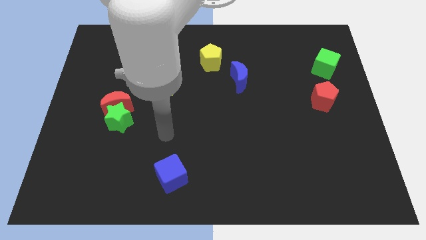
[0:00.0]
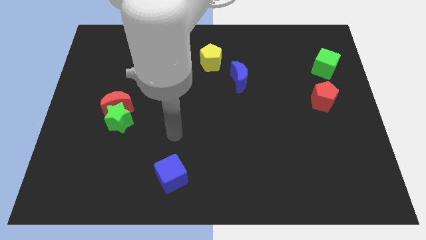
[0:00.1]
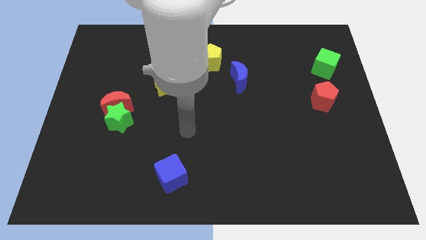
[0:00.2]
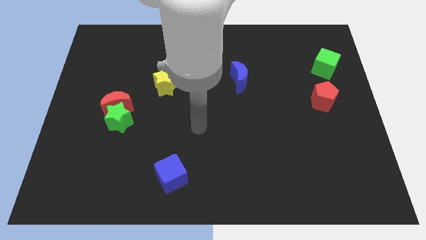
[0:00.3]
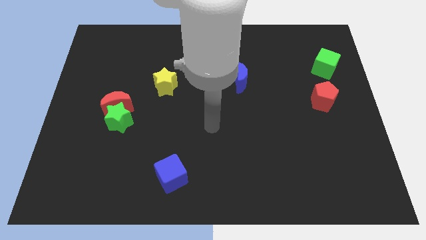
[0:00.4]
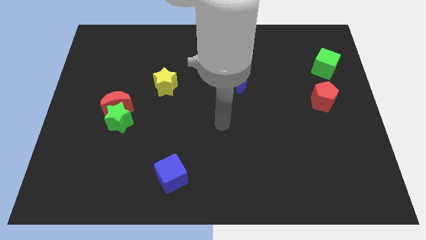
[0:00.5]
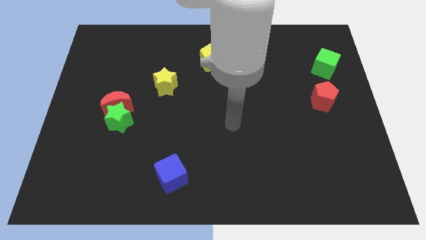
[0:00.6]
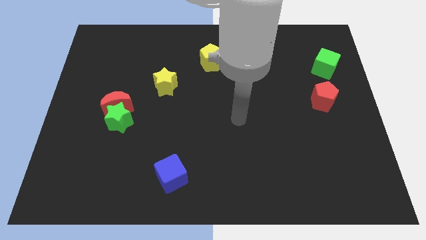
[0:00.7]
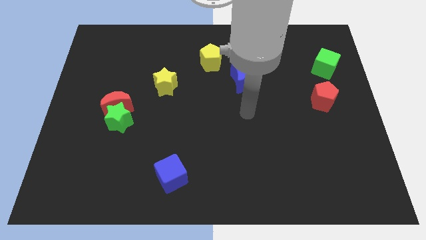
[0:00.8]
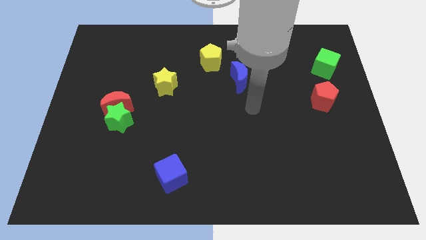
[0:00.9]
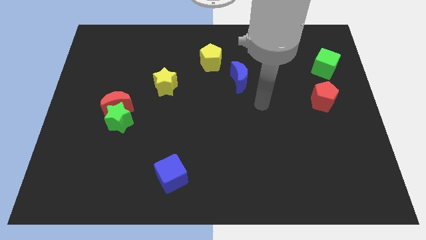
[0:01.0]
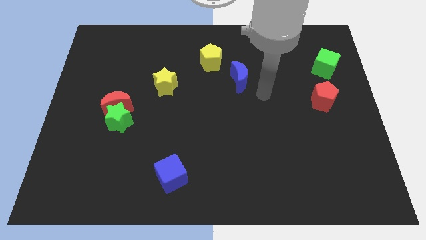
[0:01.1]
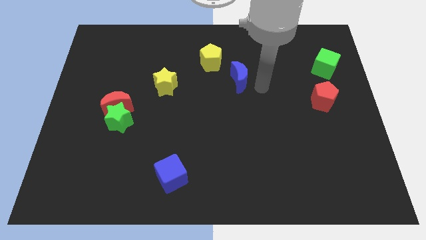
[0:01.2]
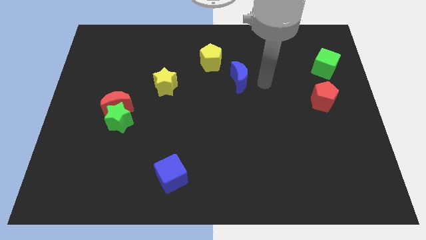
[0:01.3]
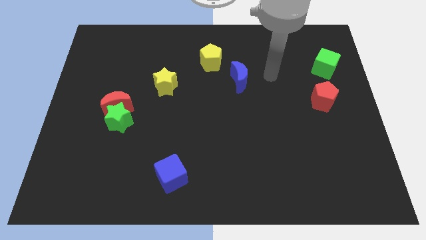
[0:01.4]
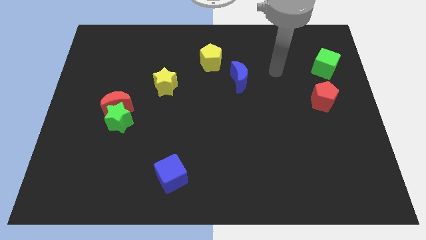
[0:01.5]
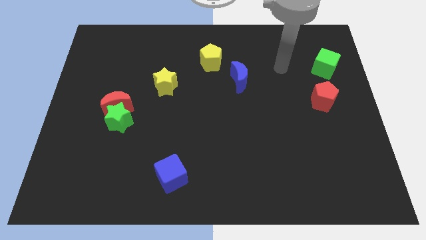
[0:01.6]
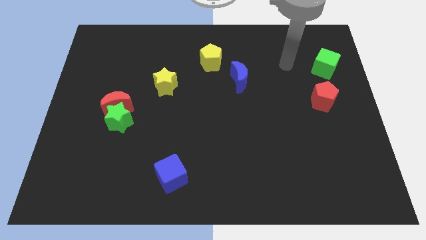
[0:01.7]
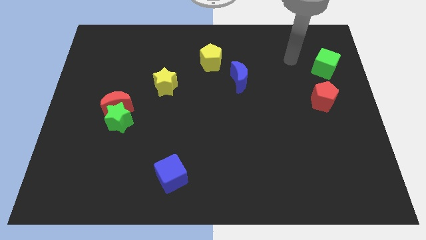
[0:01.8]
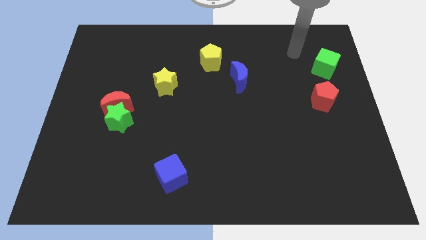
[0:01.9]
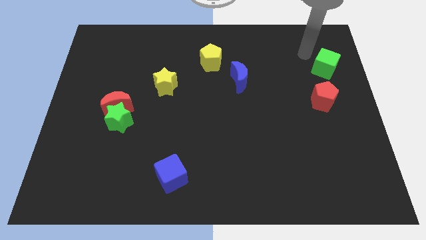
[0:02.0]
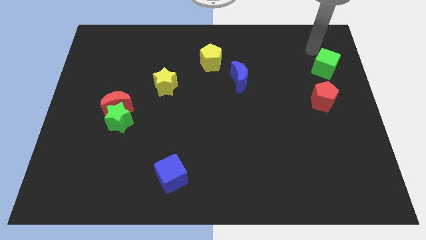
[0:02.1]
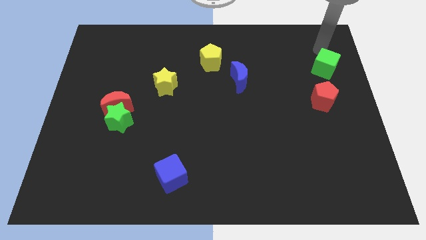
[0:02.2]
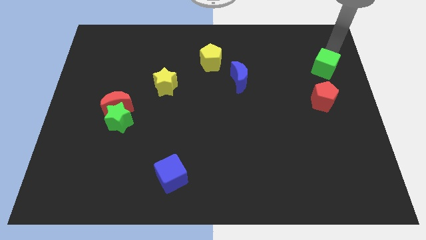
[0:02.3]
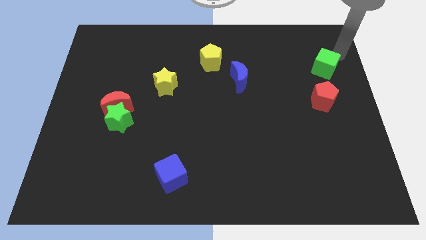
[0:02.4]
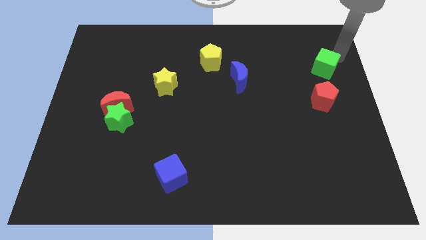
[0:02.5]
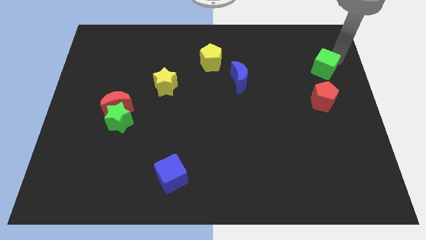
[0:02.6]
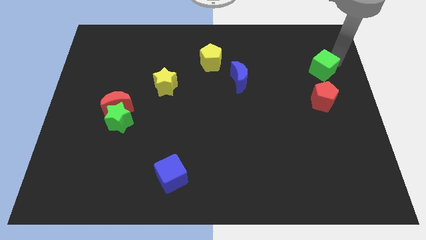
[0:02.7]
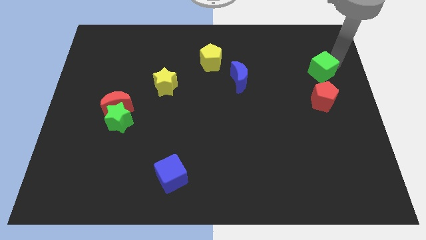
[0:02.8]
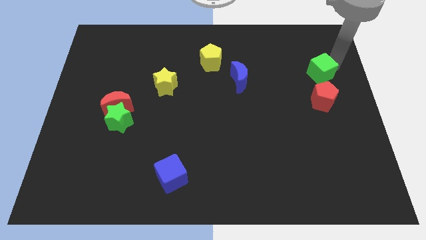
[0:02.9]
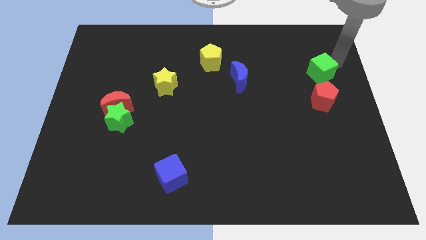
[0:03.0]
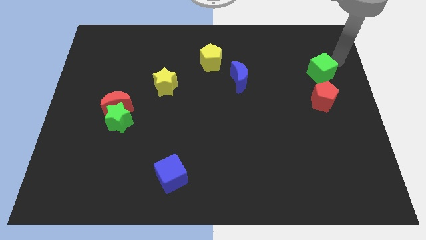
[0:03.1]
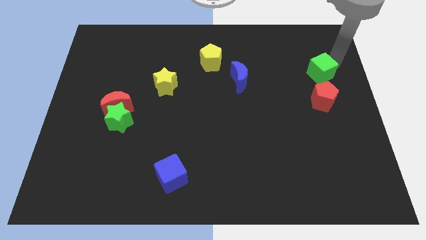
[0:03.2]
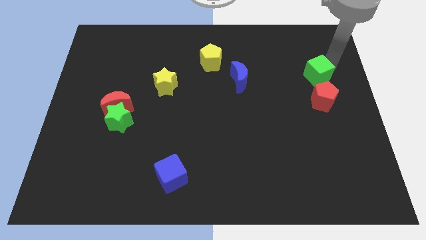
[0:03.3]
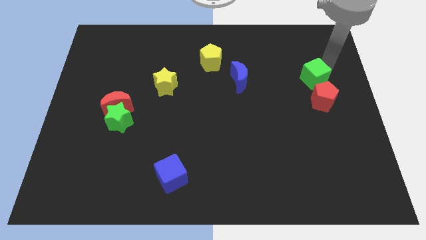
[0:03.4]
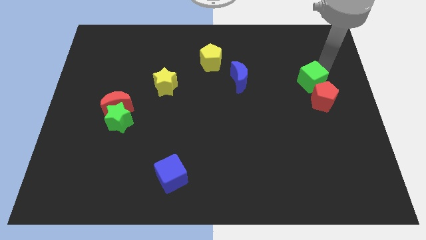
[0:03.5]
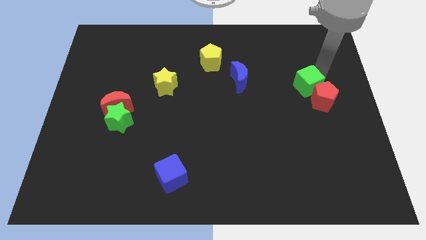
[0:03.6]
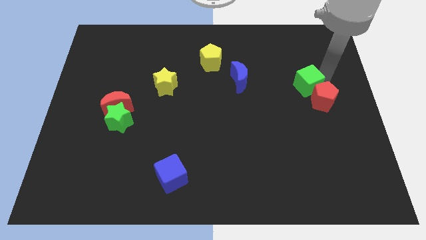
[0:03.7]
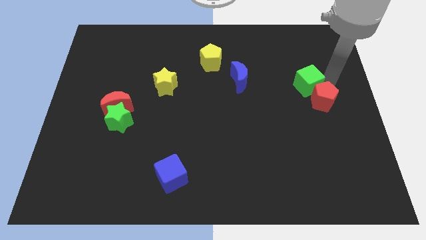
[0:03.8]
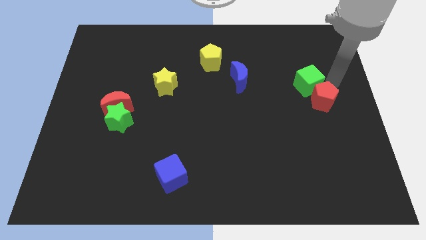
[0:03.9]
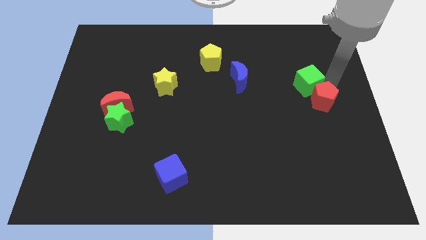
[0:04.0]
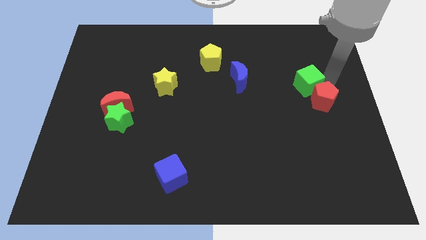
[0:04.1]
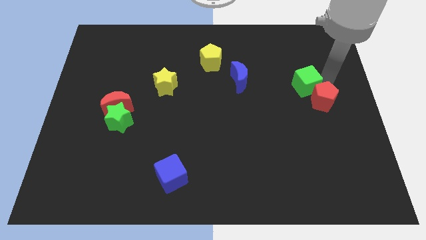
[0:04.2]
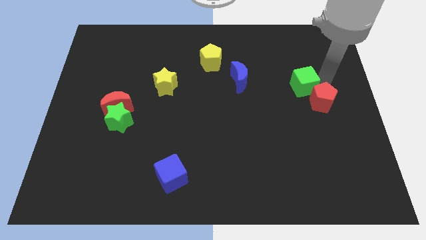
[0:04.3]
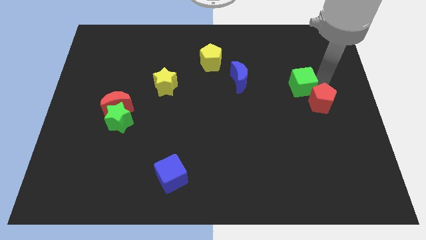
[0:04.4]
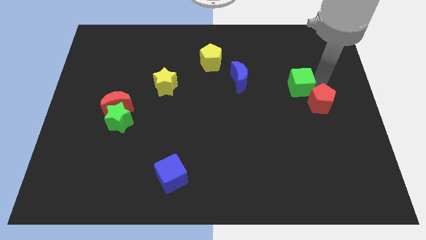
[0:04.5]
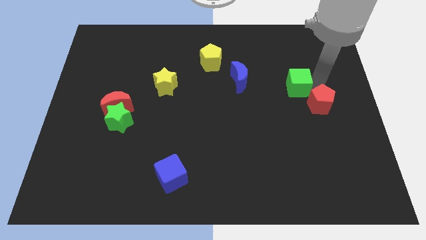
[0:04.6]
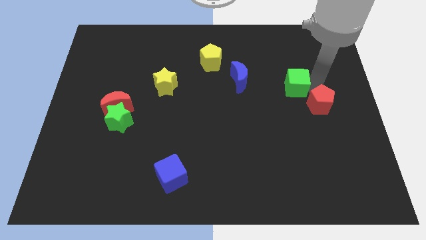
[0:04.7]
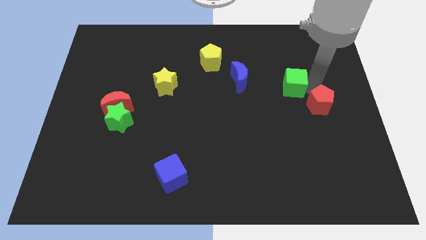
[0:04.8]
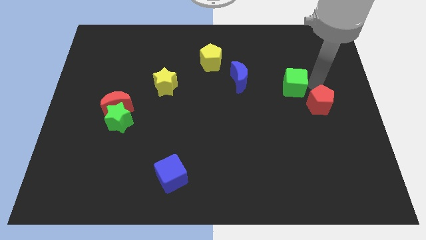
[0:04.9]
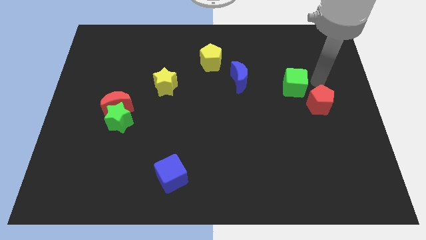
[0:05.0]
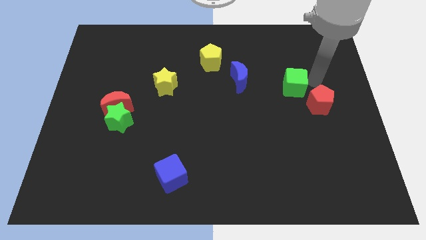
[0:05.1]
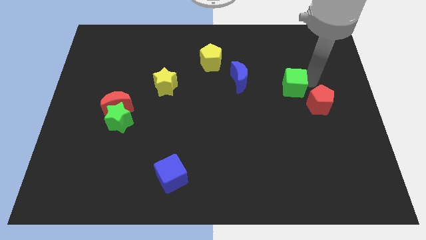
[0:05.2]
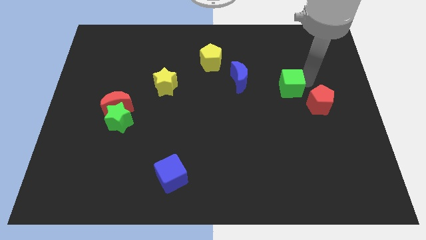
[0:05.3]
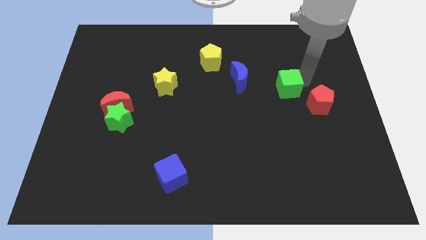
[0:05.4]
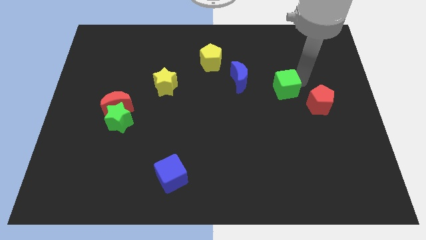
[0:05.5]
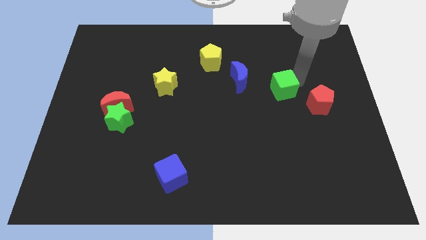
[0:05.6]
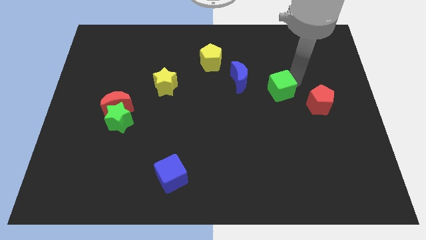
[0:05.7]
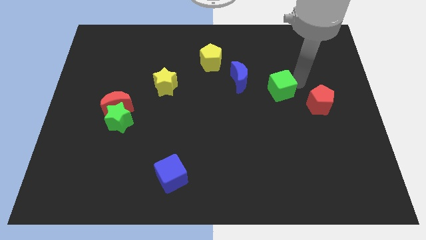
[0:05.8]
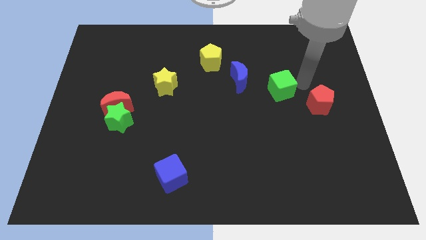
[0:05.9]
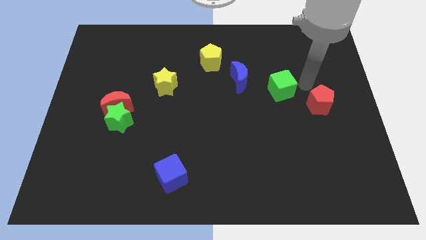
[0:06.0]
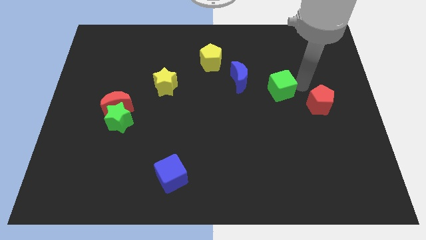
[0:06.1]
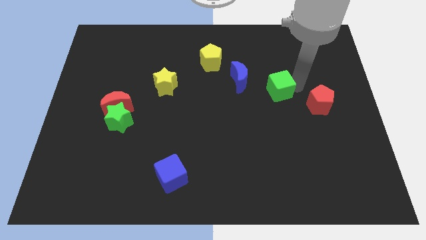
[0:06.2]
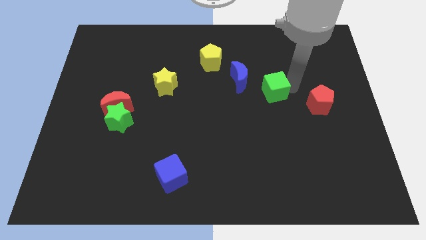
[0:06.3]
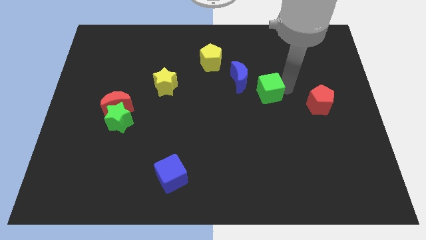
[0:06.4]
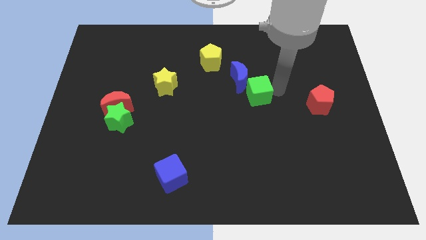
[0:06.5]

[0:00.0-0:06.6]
slide the green cube to the middle of the board
